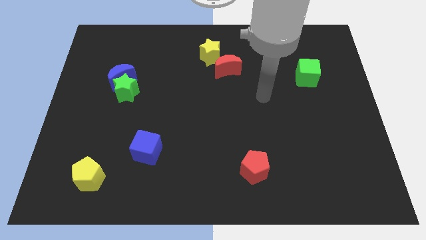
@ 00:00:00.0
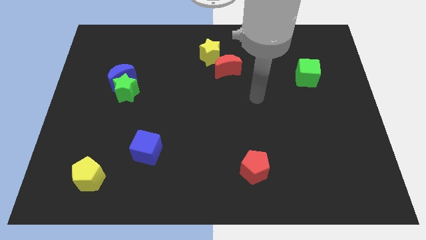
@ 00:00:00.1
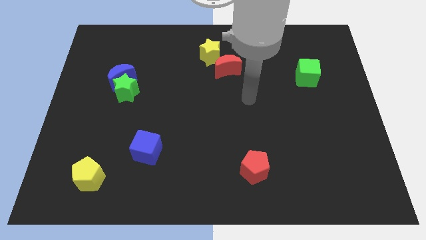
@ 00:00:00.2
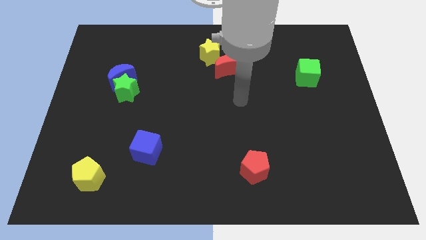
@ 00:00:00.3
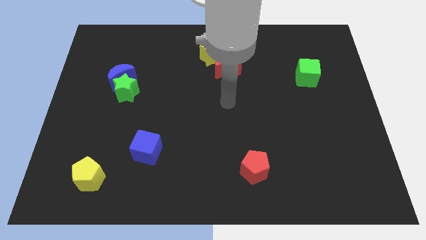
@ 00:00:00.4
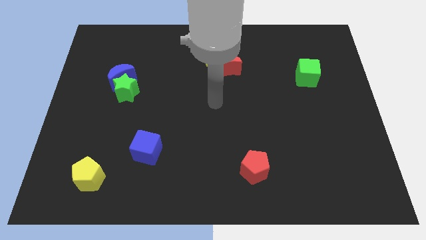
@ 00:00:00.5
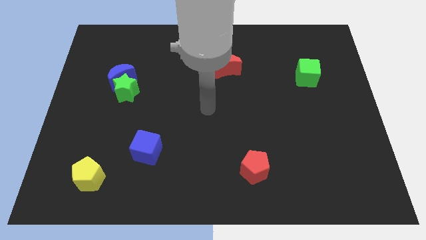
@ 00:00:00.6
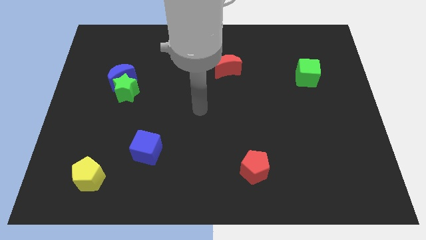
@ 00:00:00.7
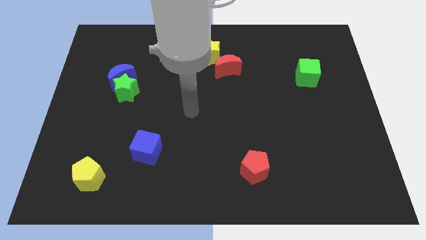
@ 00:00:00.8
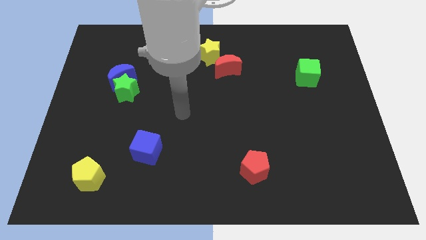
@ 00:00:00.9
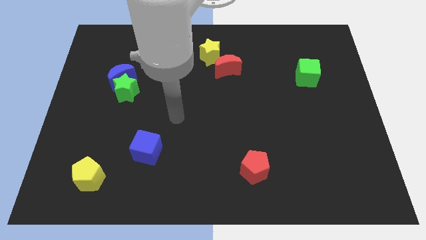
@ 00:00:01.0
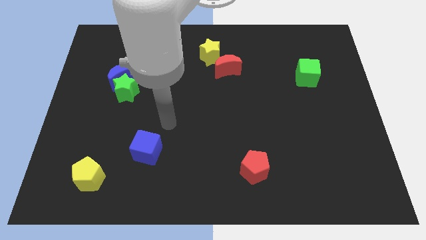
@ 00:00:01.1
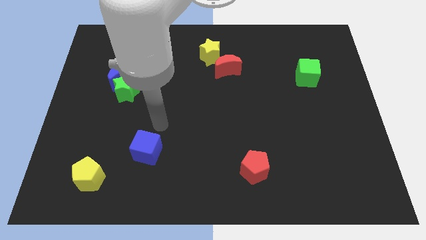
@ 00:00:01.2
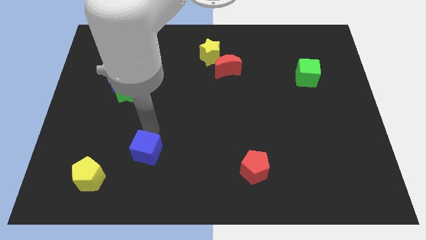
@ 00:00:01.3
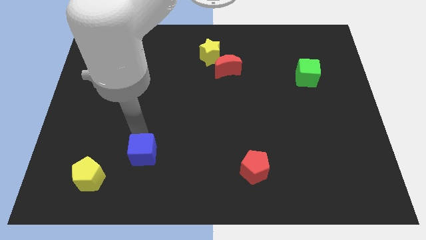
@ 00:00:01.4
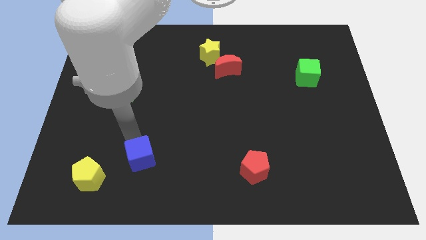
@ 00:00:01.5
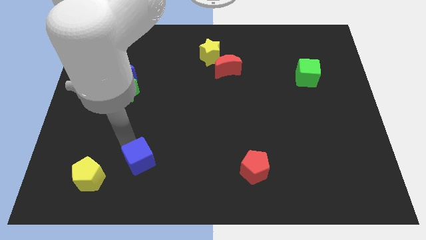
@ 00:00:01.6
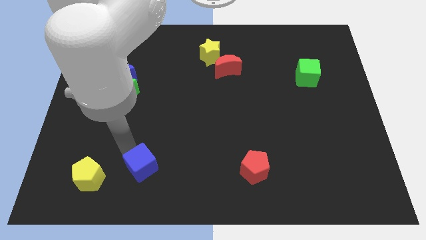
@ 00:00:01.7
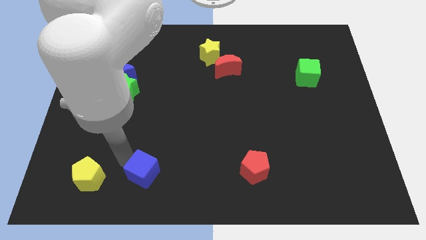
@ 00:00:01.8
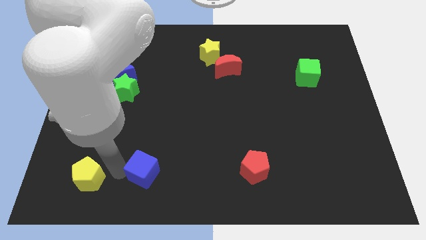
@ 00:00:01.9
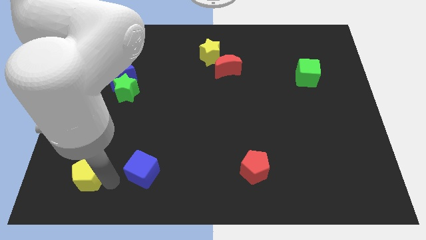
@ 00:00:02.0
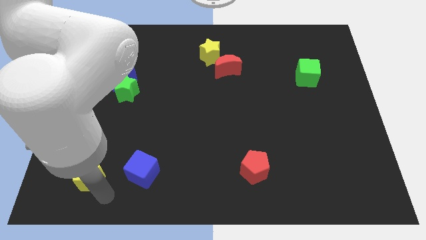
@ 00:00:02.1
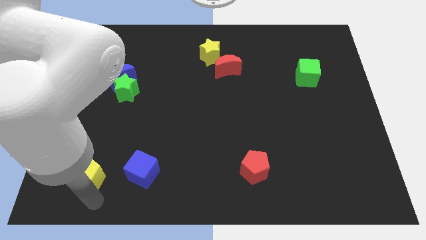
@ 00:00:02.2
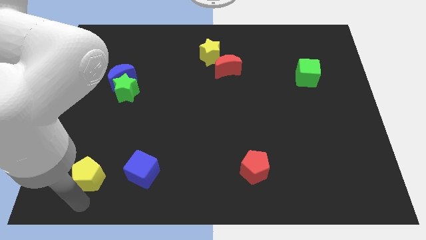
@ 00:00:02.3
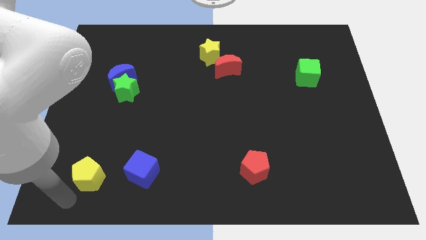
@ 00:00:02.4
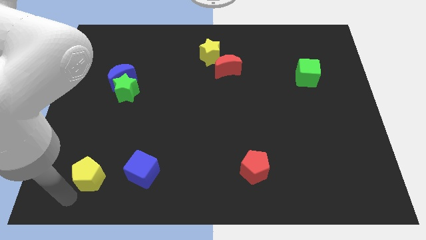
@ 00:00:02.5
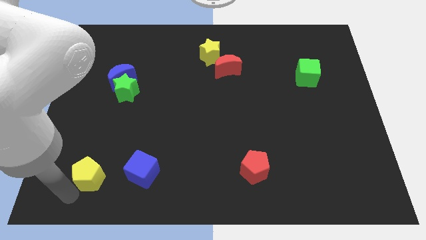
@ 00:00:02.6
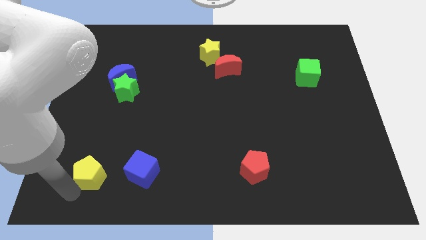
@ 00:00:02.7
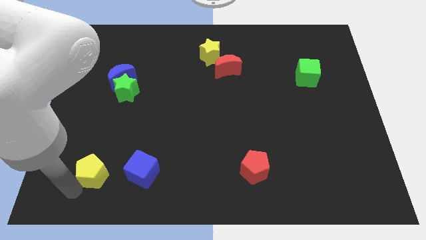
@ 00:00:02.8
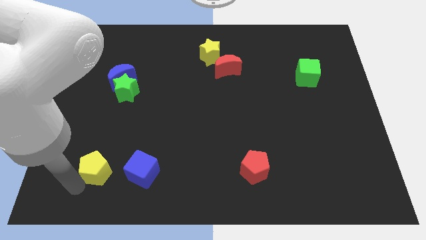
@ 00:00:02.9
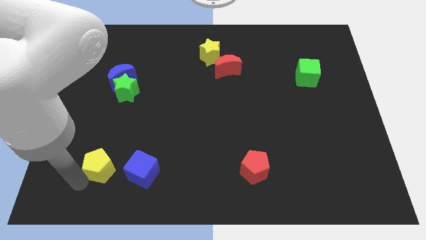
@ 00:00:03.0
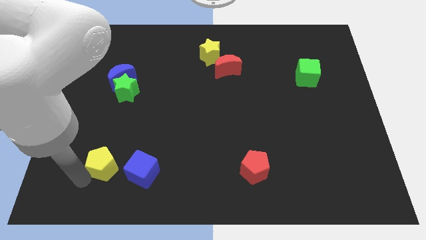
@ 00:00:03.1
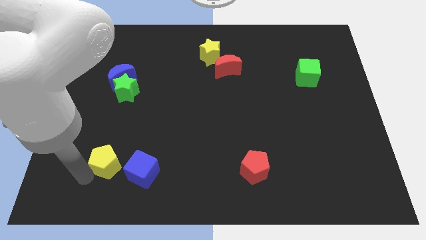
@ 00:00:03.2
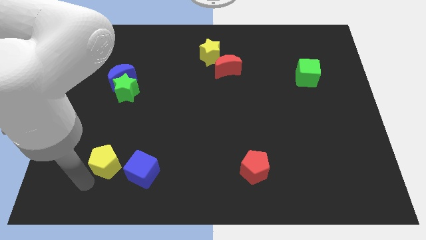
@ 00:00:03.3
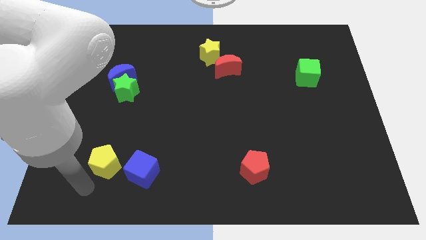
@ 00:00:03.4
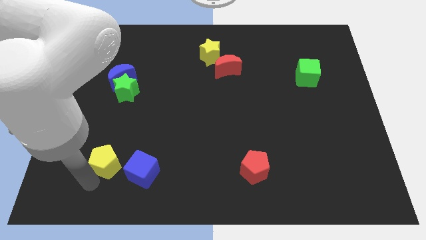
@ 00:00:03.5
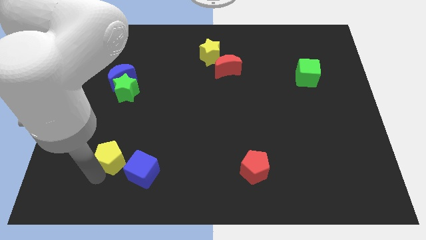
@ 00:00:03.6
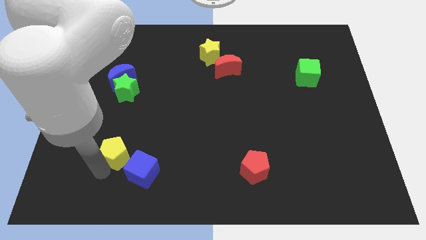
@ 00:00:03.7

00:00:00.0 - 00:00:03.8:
move the yellow pentagon diagonally upwards and to the right slightly

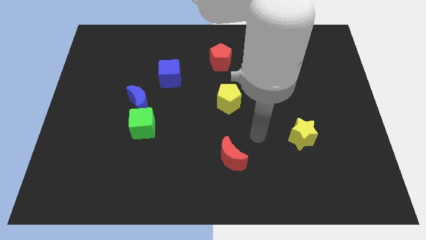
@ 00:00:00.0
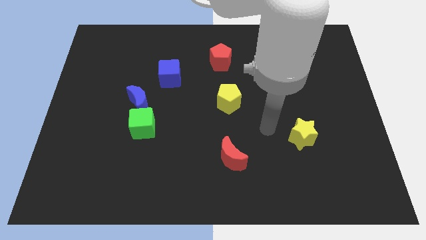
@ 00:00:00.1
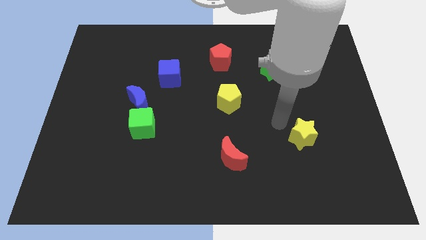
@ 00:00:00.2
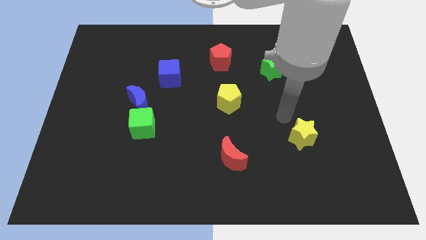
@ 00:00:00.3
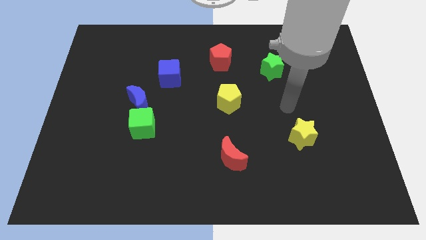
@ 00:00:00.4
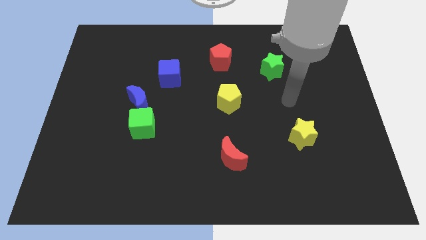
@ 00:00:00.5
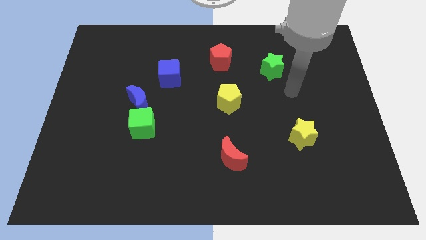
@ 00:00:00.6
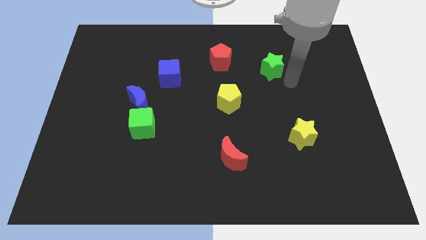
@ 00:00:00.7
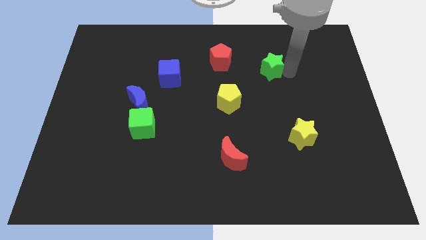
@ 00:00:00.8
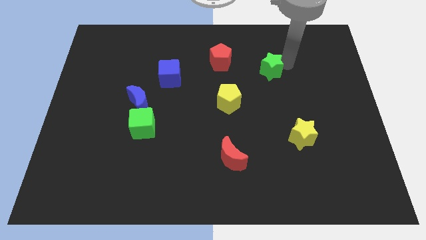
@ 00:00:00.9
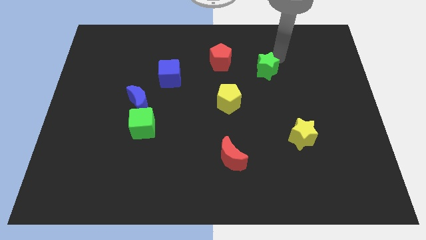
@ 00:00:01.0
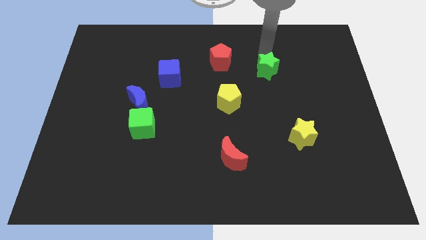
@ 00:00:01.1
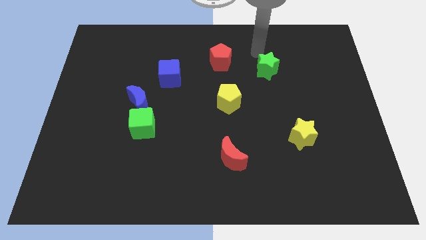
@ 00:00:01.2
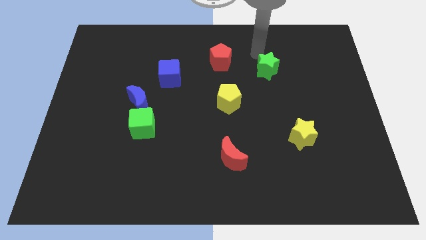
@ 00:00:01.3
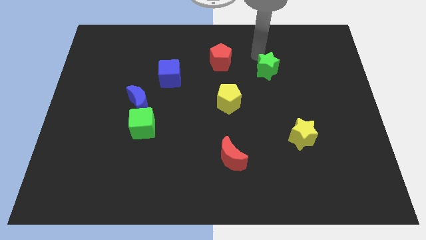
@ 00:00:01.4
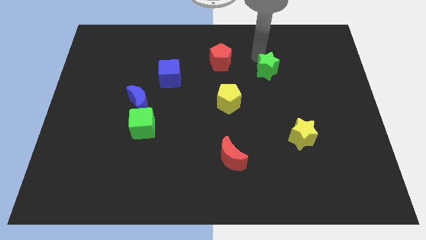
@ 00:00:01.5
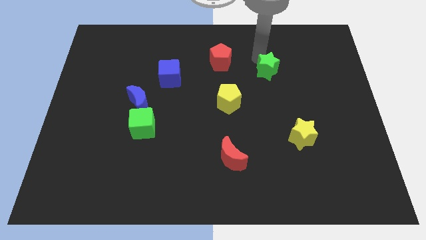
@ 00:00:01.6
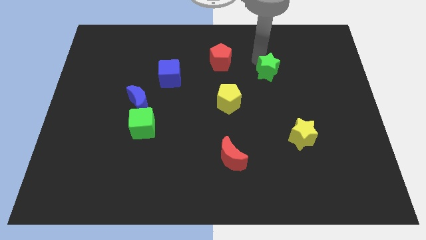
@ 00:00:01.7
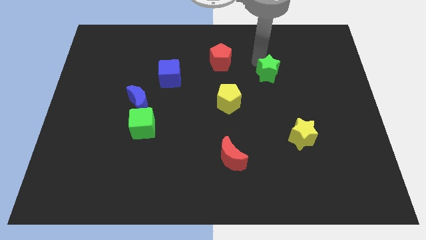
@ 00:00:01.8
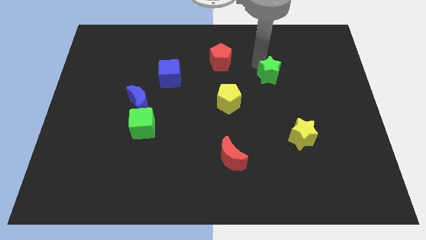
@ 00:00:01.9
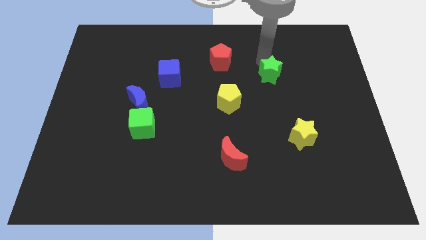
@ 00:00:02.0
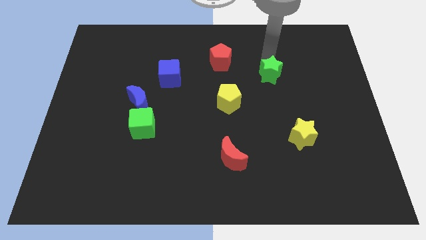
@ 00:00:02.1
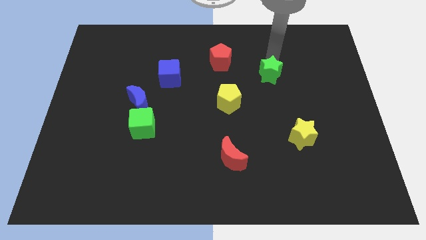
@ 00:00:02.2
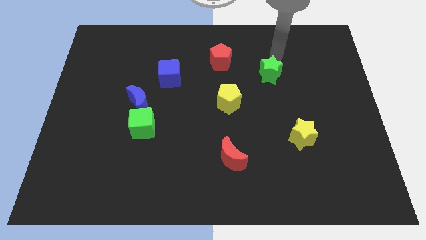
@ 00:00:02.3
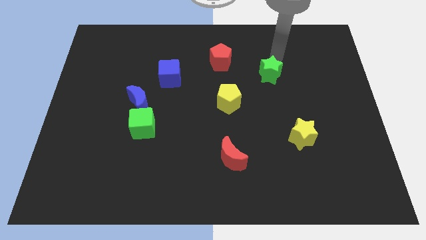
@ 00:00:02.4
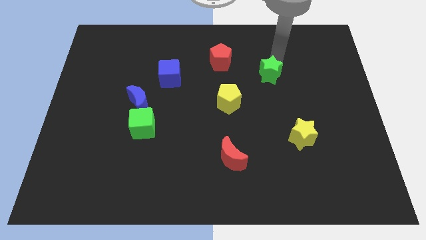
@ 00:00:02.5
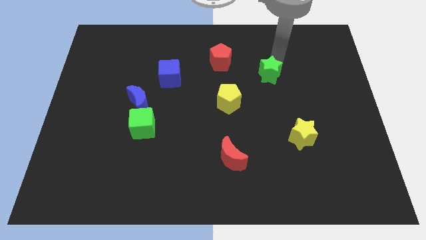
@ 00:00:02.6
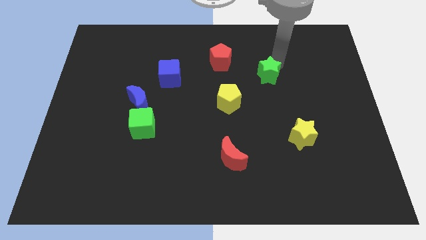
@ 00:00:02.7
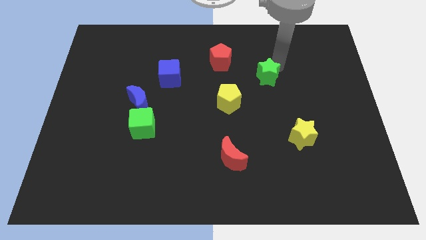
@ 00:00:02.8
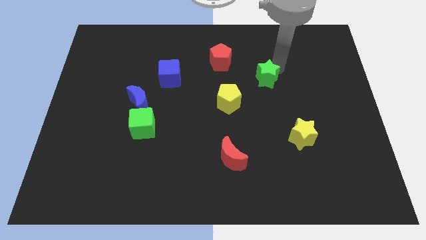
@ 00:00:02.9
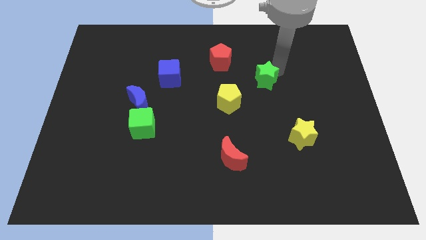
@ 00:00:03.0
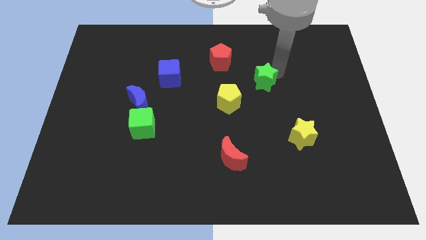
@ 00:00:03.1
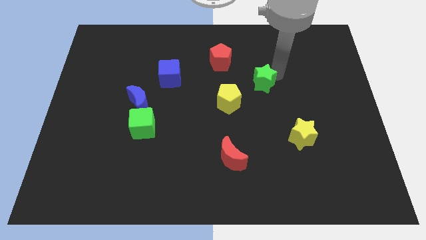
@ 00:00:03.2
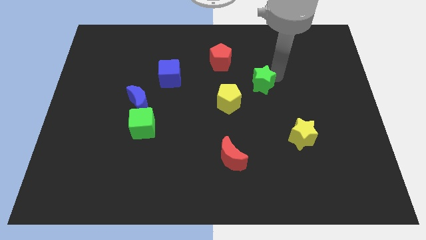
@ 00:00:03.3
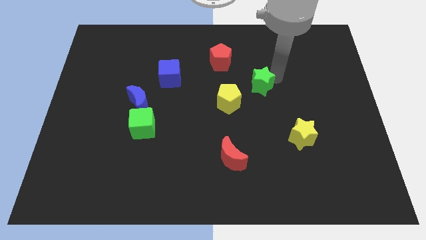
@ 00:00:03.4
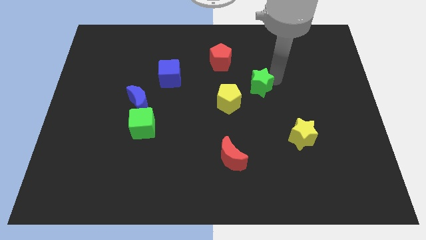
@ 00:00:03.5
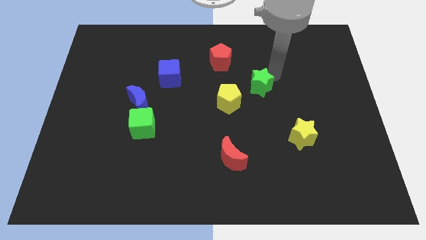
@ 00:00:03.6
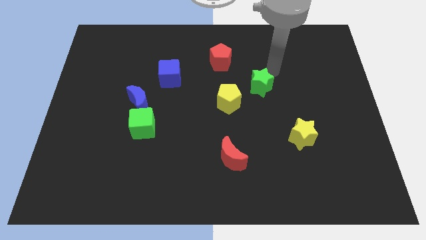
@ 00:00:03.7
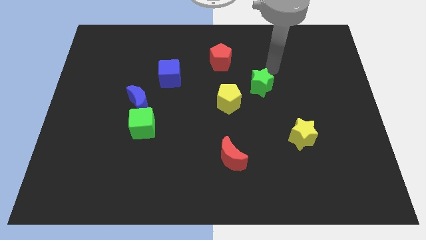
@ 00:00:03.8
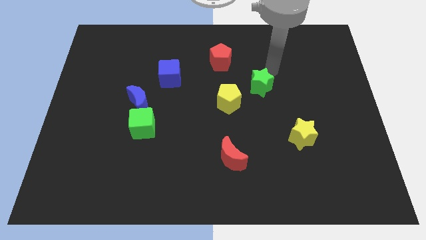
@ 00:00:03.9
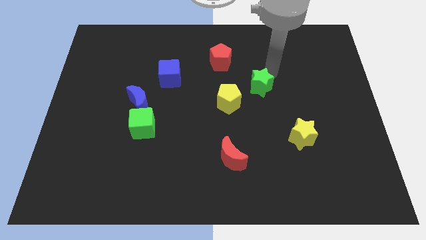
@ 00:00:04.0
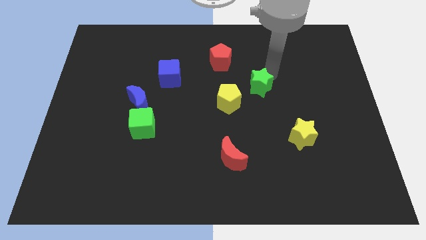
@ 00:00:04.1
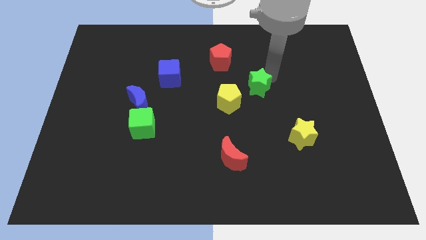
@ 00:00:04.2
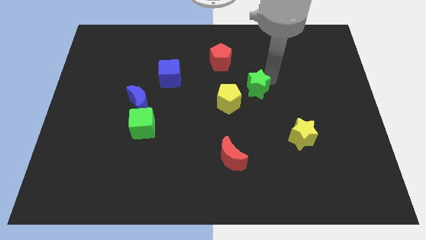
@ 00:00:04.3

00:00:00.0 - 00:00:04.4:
slightly push the green star down and left
